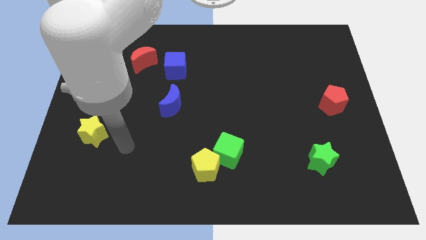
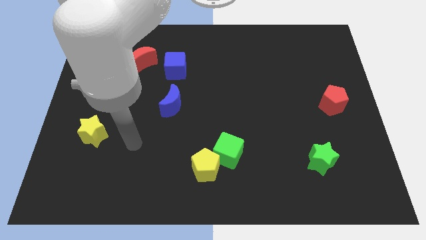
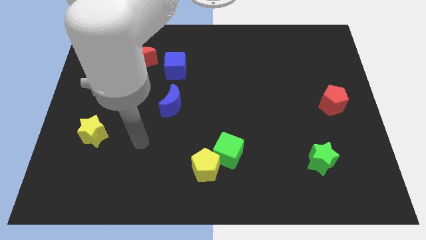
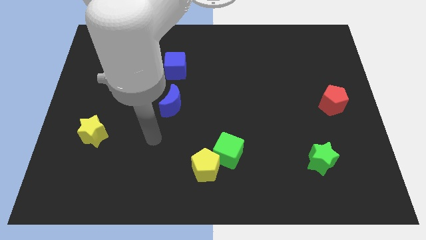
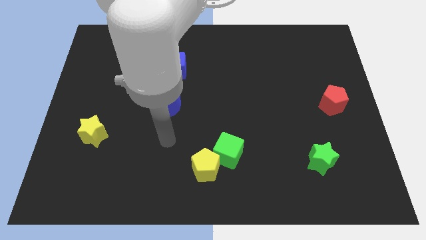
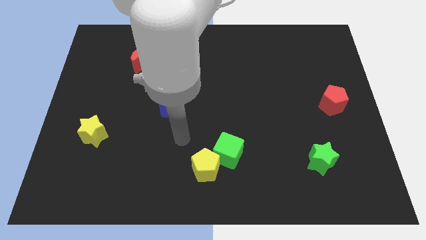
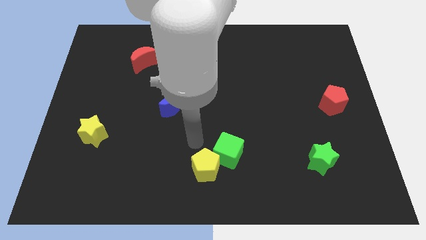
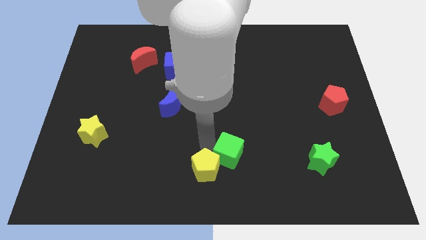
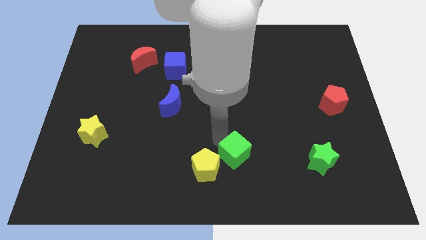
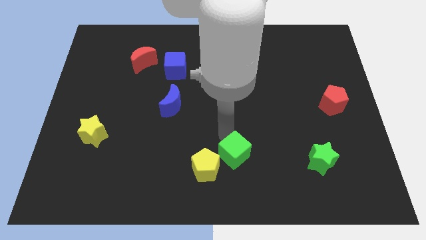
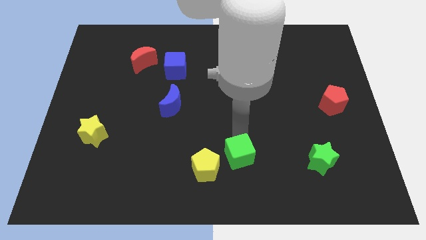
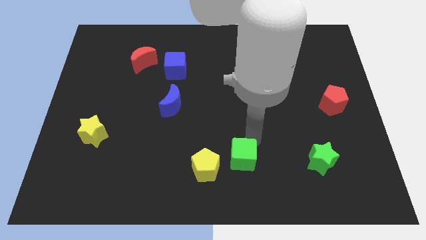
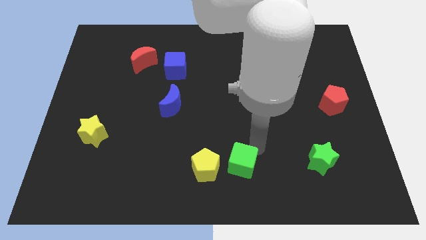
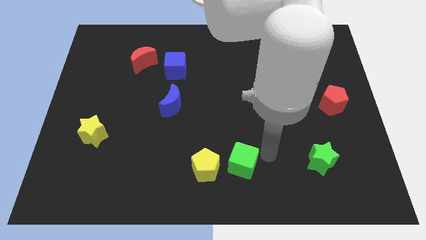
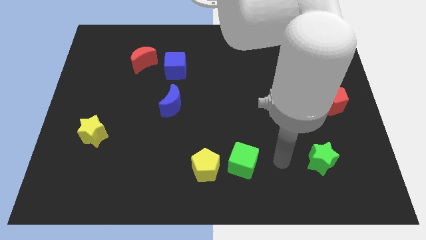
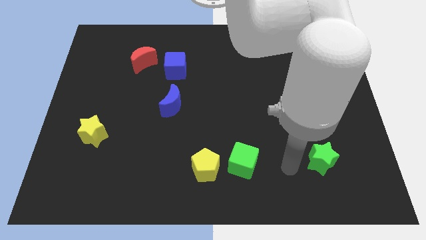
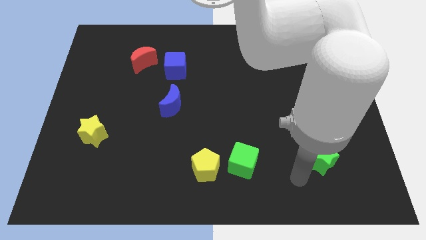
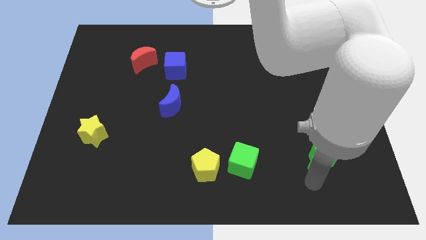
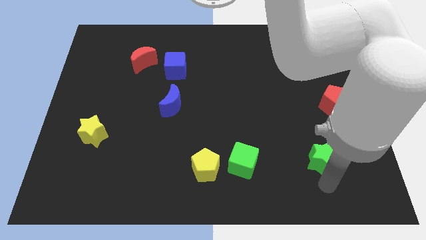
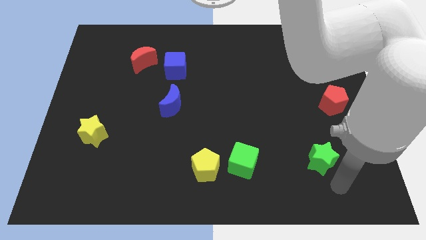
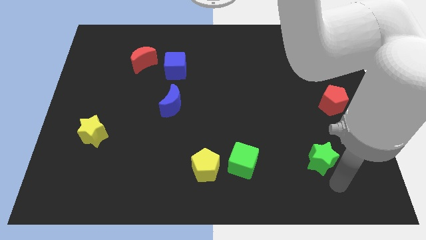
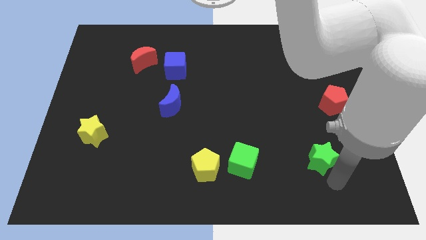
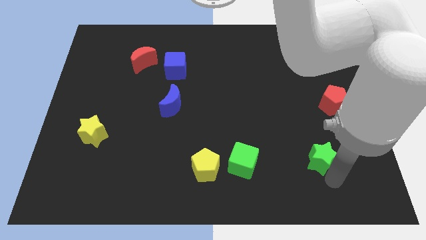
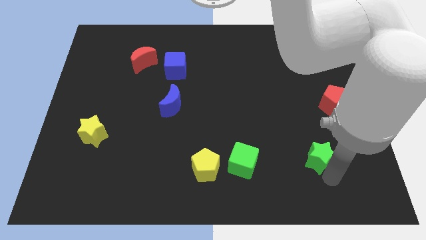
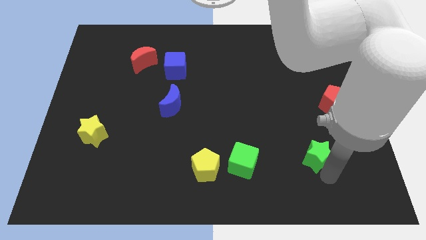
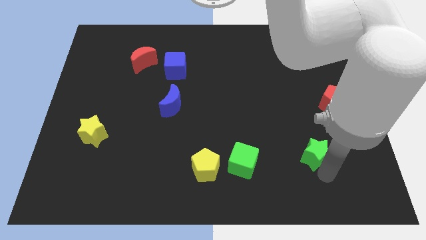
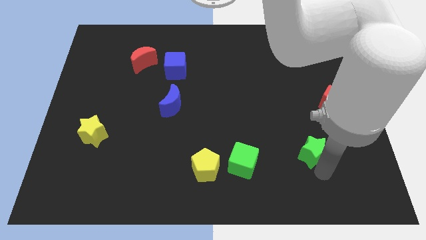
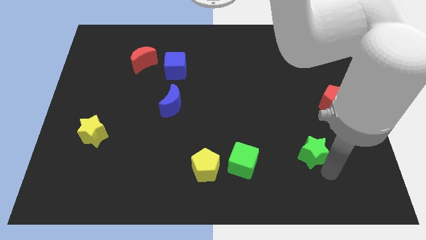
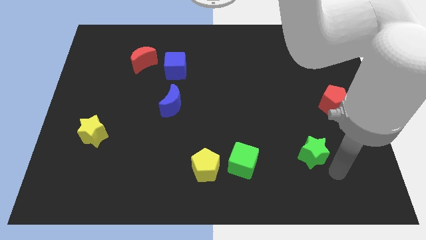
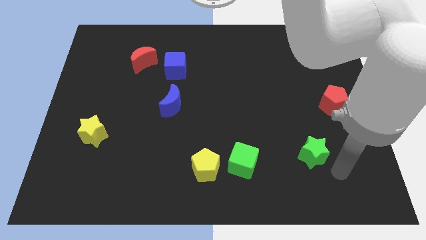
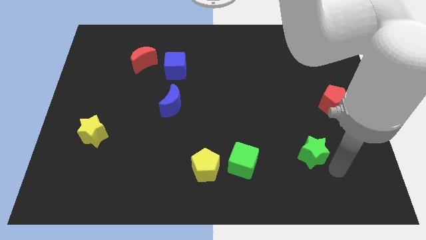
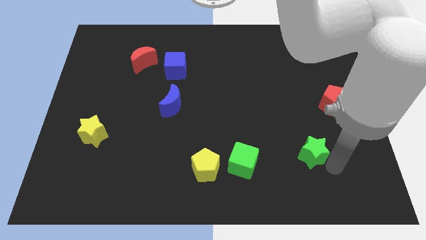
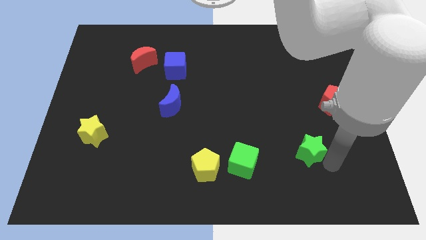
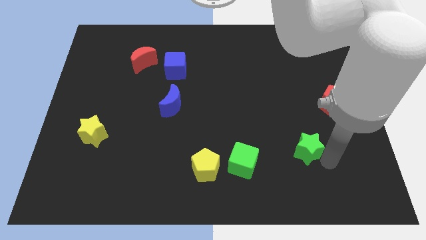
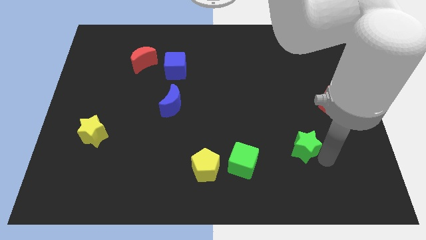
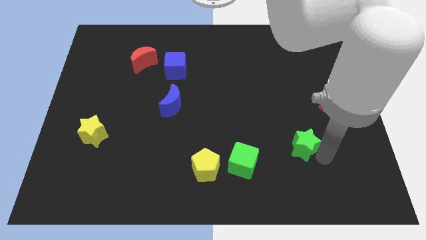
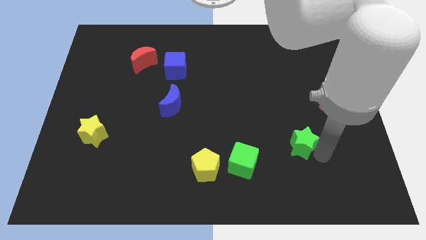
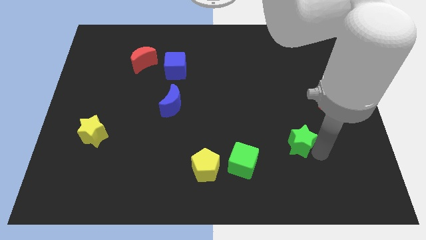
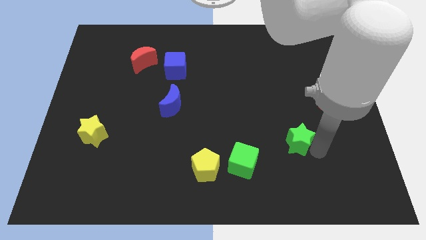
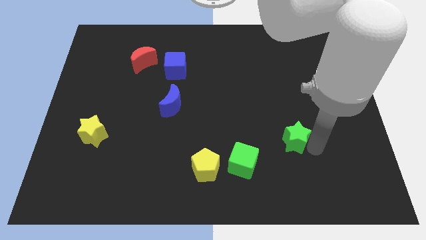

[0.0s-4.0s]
move the green star a little diagonally up and left

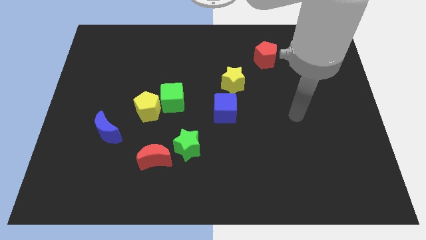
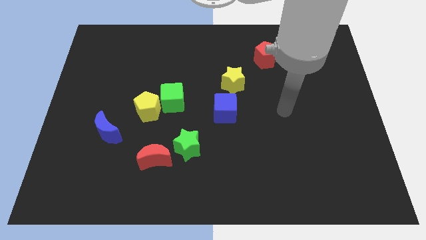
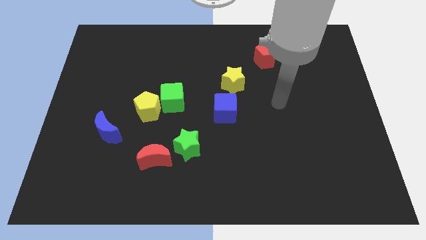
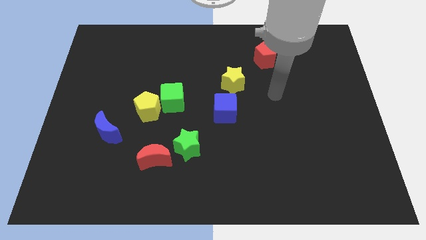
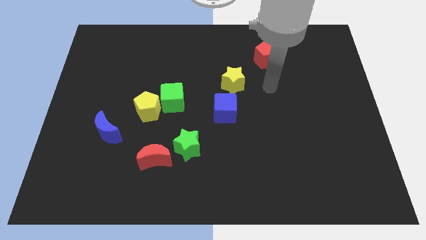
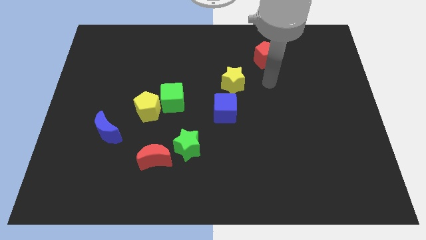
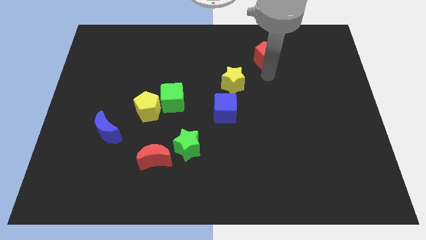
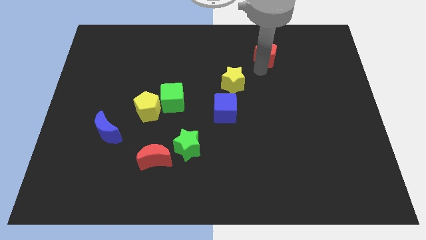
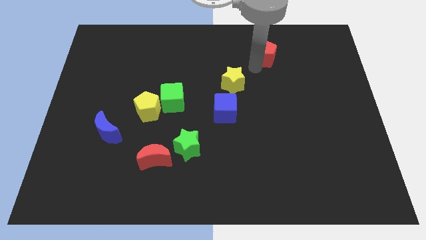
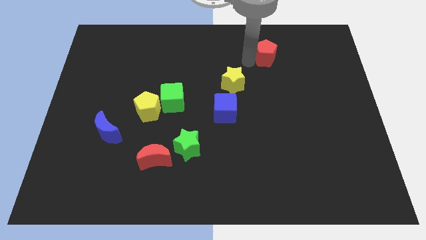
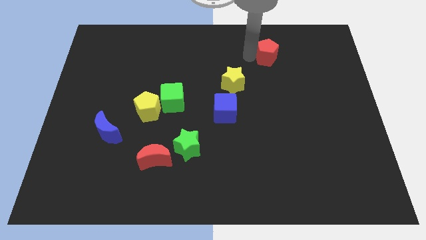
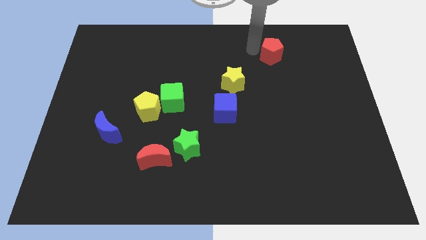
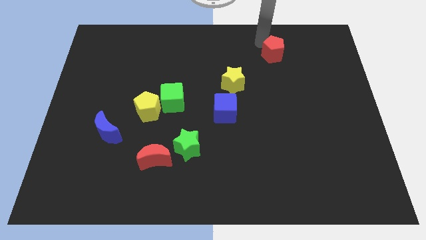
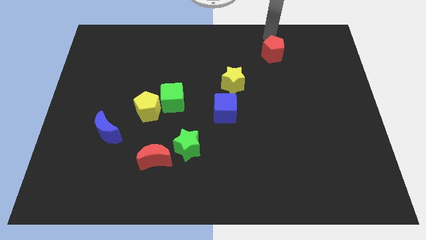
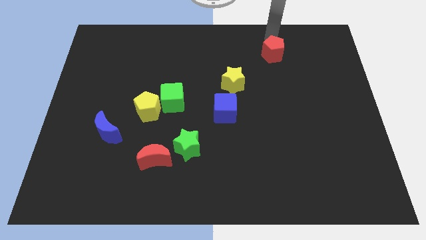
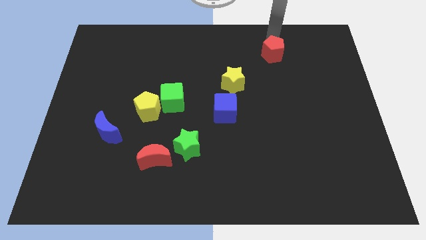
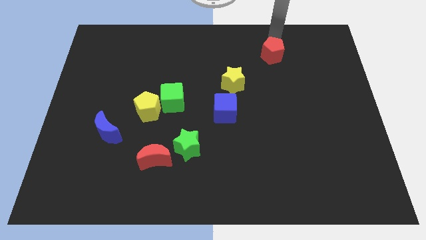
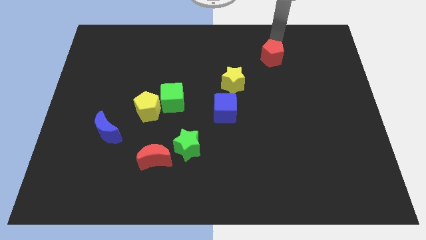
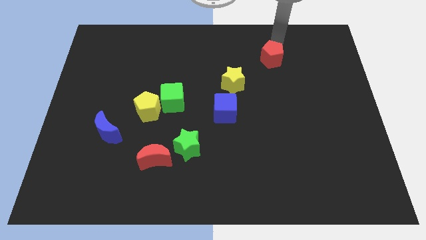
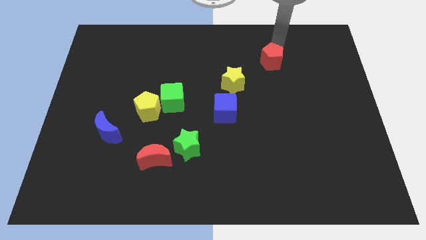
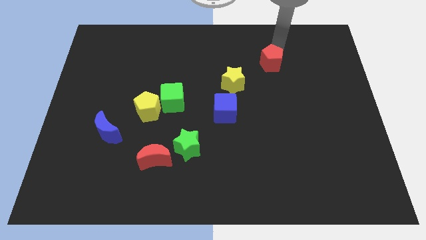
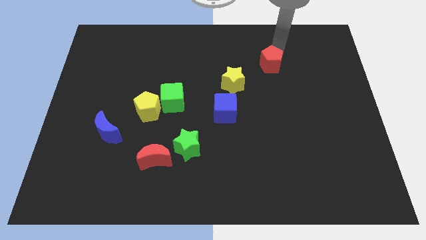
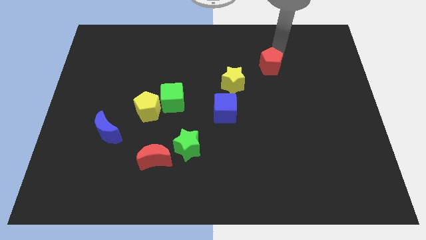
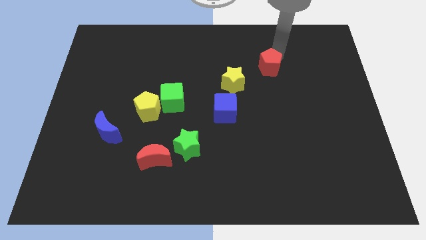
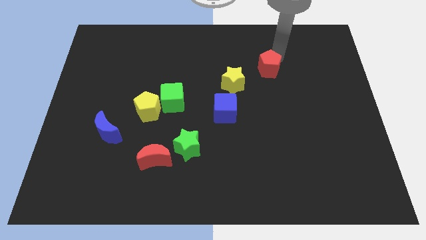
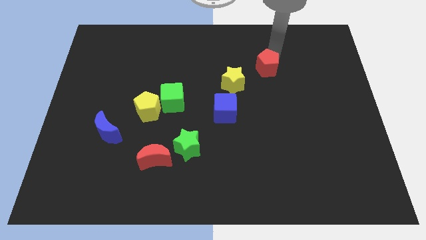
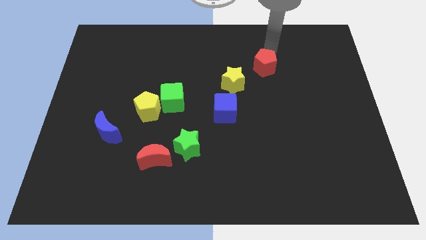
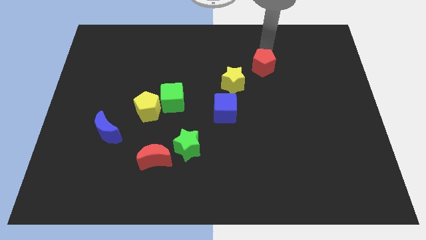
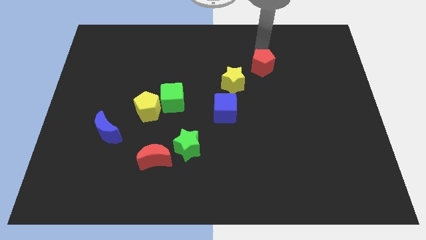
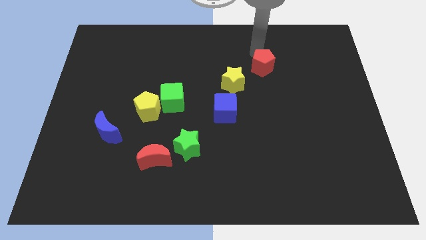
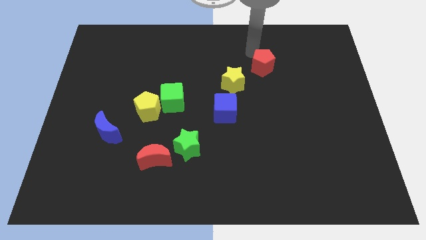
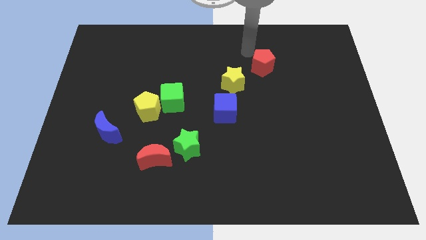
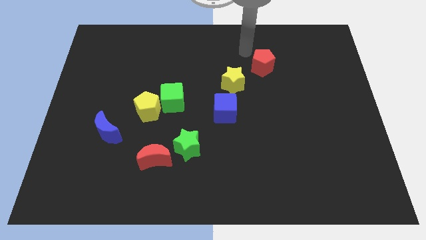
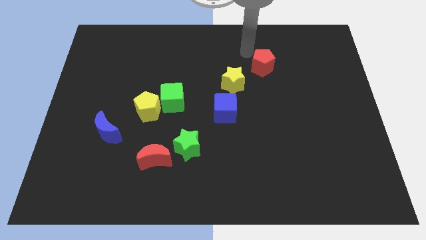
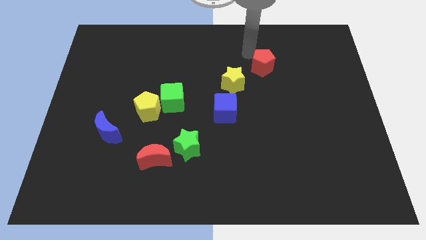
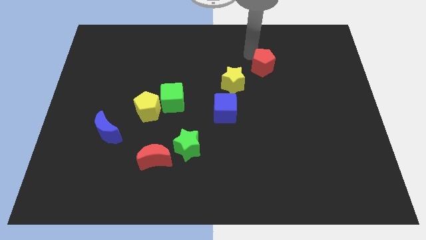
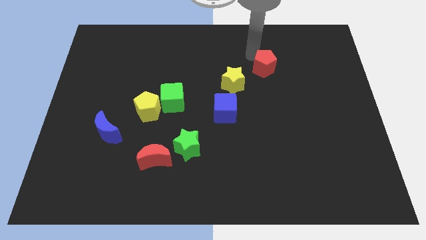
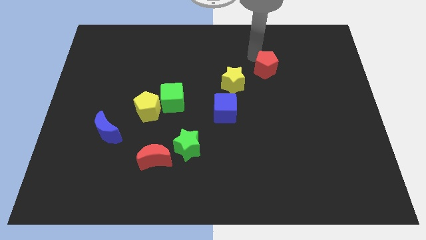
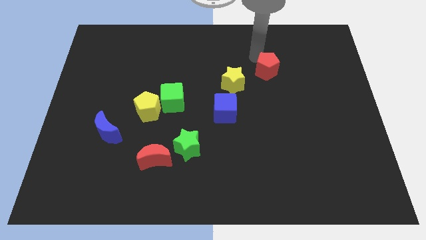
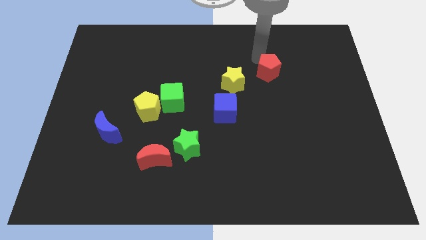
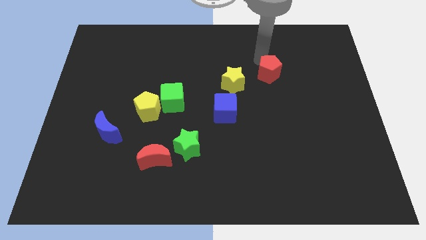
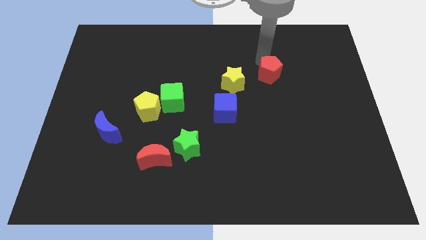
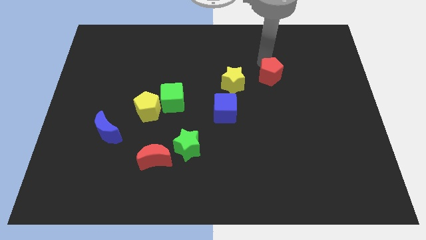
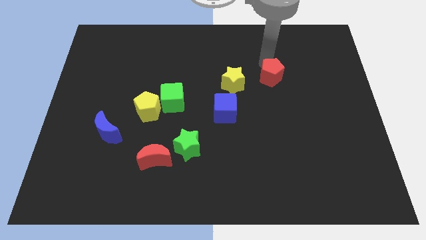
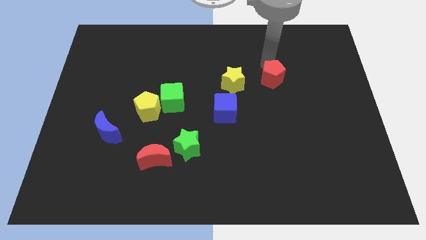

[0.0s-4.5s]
move the red pentagon somewhat downwards
